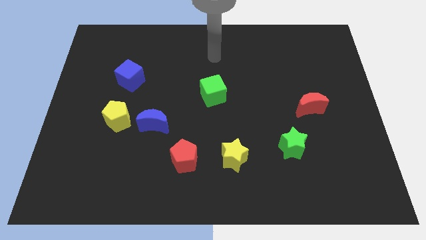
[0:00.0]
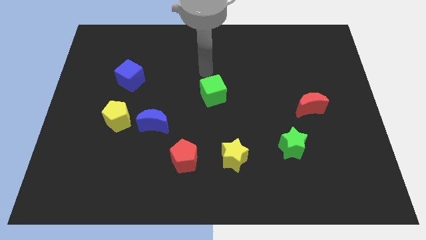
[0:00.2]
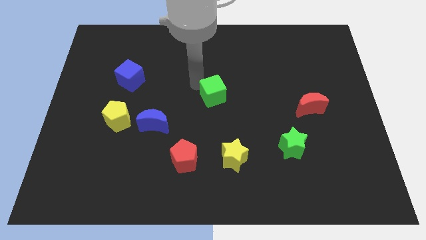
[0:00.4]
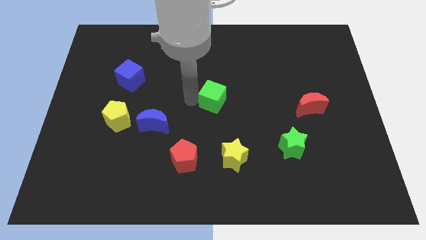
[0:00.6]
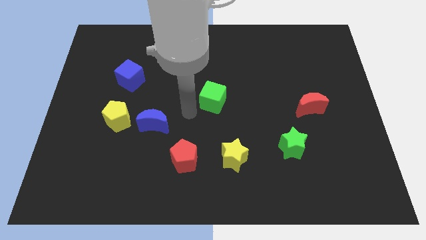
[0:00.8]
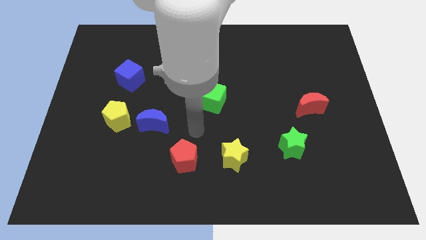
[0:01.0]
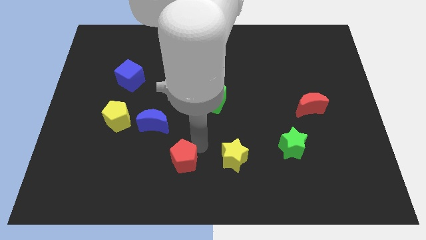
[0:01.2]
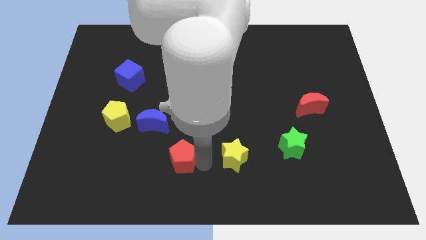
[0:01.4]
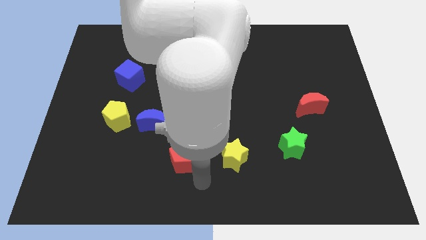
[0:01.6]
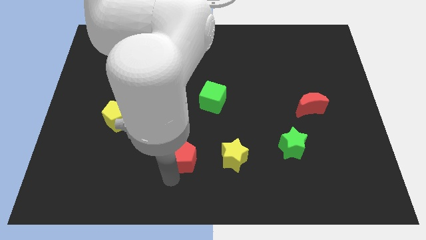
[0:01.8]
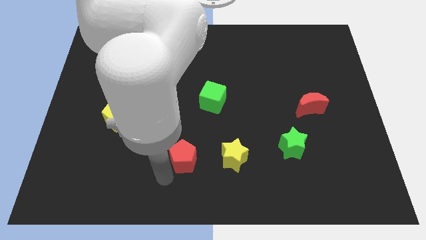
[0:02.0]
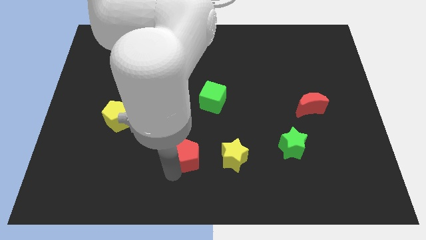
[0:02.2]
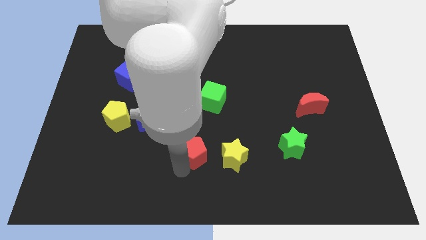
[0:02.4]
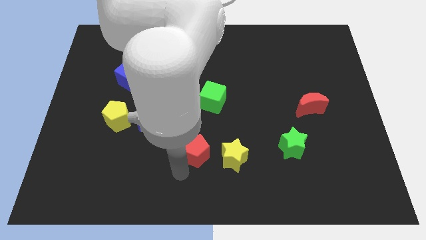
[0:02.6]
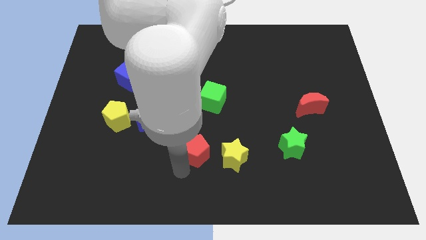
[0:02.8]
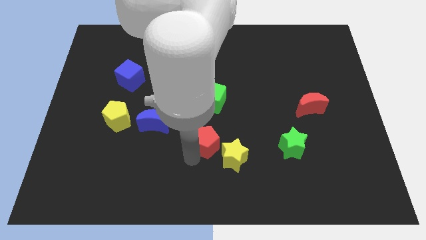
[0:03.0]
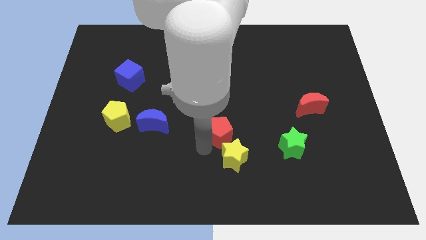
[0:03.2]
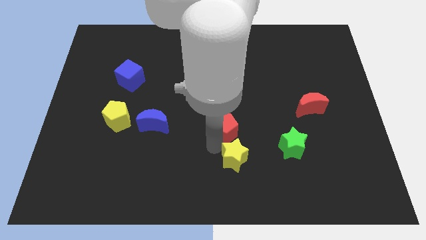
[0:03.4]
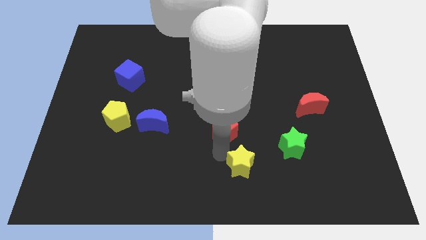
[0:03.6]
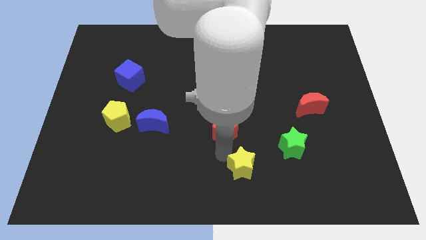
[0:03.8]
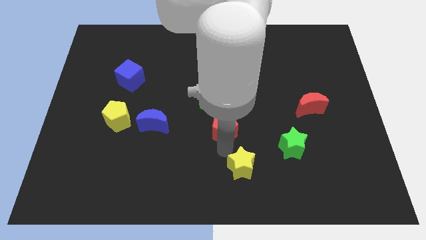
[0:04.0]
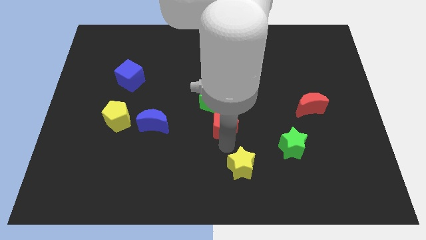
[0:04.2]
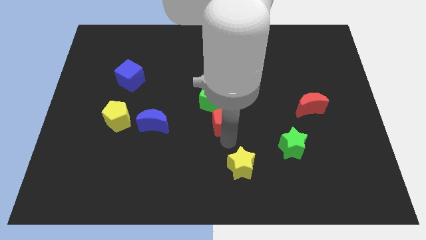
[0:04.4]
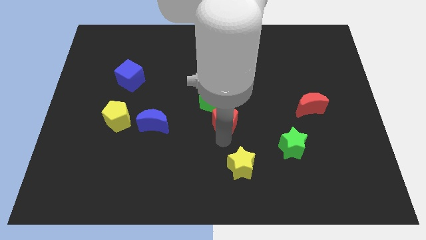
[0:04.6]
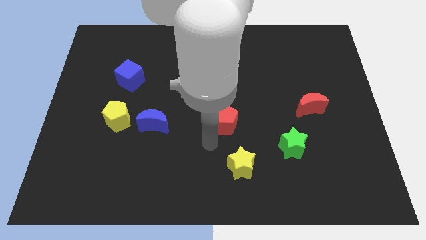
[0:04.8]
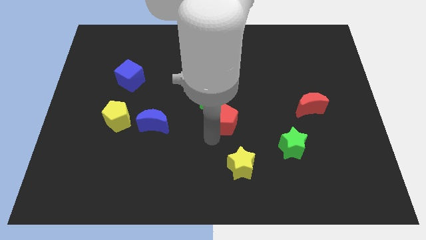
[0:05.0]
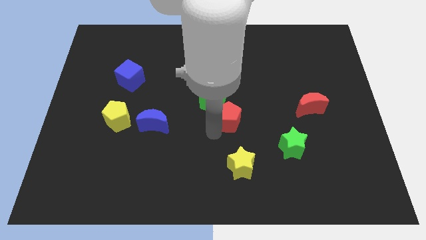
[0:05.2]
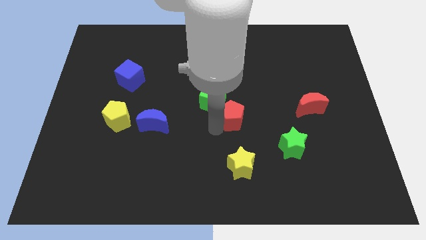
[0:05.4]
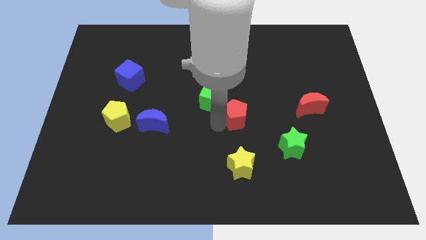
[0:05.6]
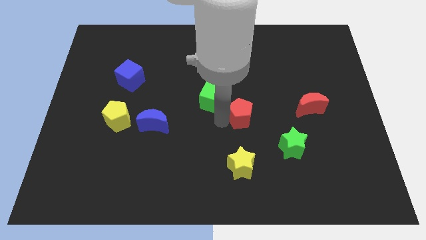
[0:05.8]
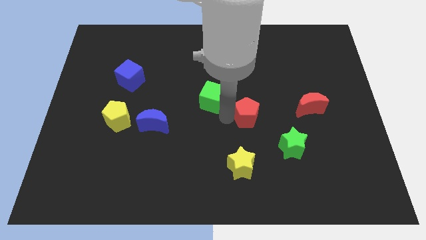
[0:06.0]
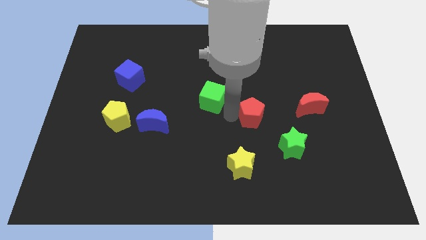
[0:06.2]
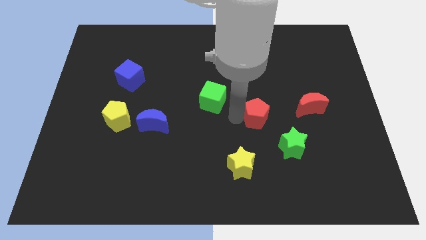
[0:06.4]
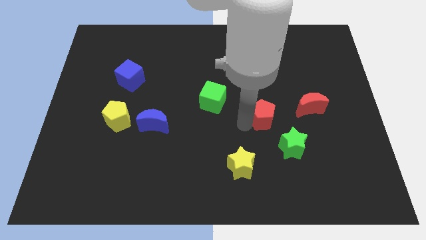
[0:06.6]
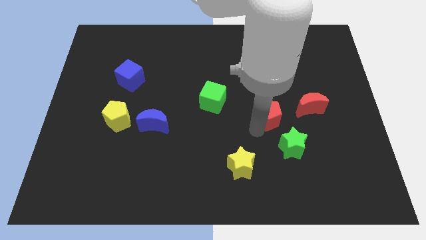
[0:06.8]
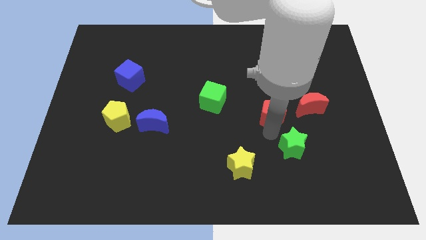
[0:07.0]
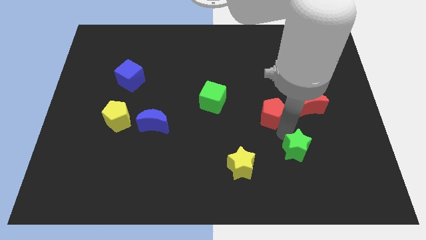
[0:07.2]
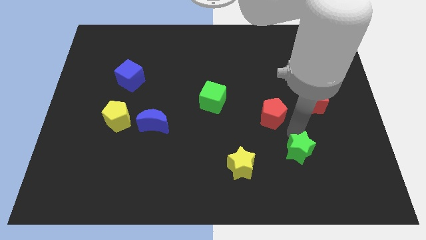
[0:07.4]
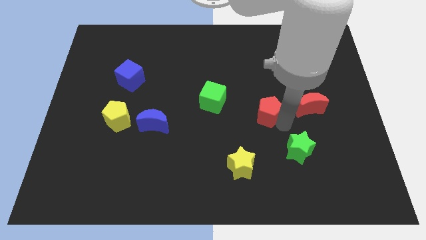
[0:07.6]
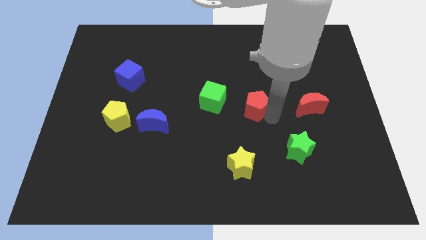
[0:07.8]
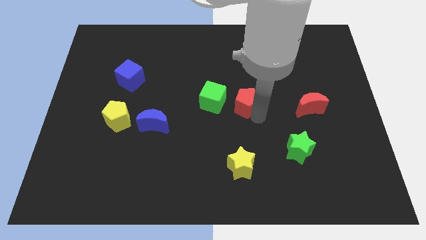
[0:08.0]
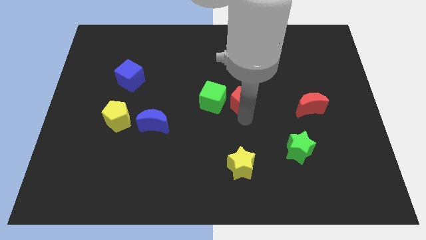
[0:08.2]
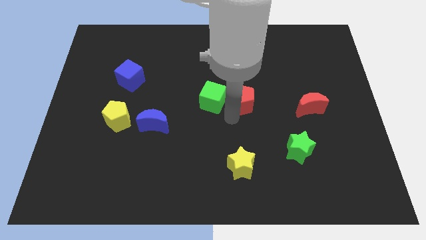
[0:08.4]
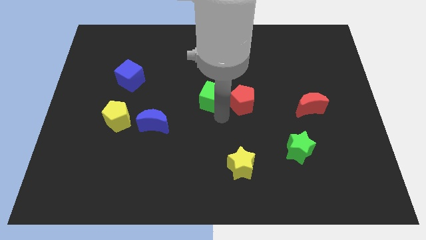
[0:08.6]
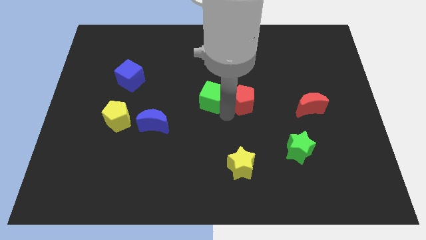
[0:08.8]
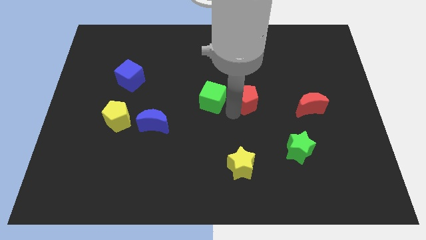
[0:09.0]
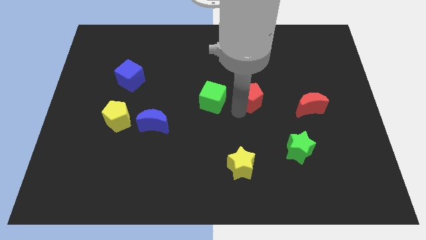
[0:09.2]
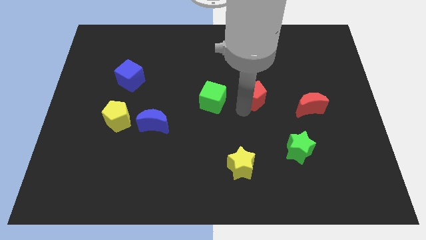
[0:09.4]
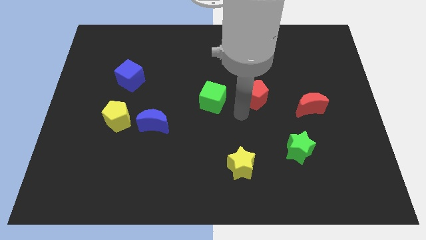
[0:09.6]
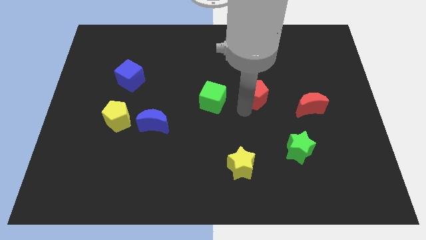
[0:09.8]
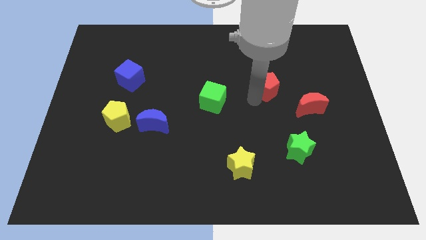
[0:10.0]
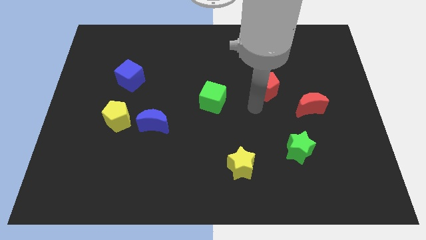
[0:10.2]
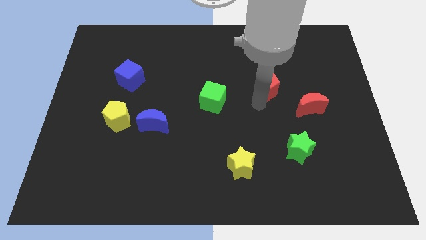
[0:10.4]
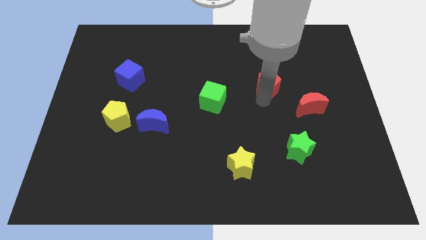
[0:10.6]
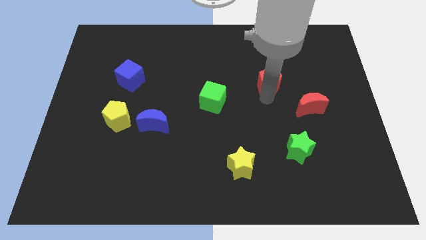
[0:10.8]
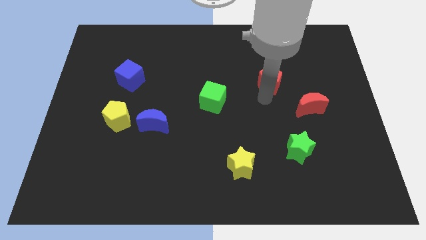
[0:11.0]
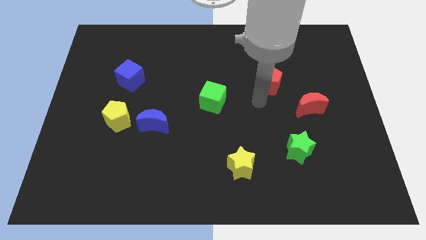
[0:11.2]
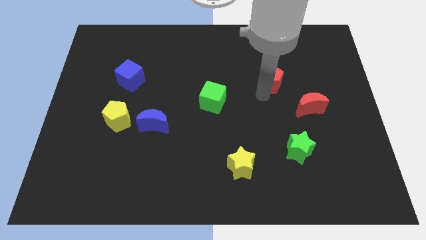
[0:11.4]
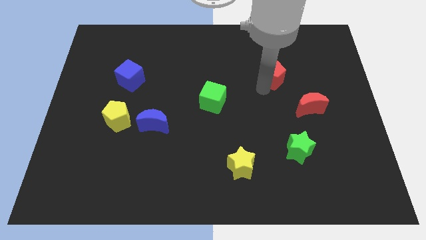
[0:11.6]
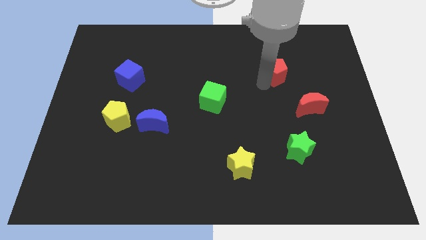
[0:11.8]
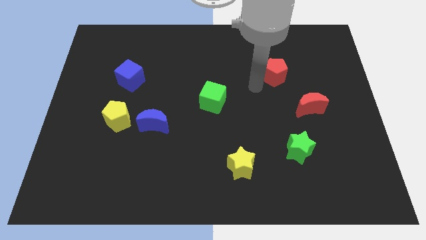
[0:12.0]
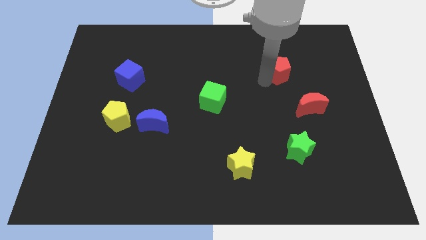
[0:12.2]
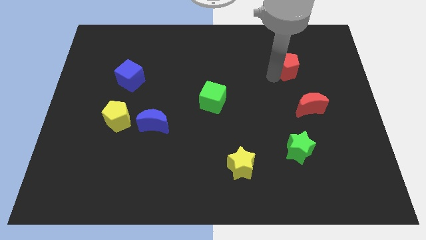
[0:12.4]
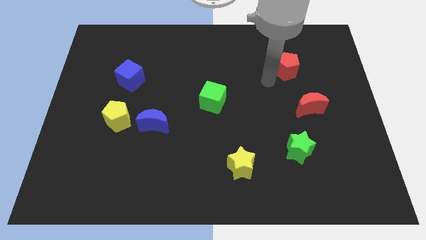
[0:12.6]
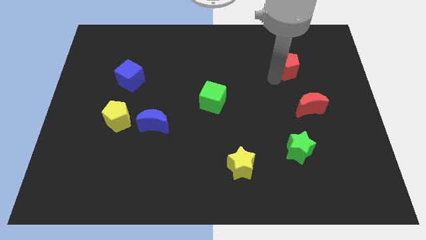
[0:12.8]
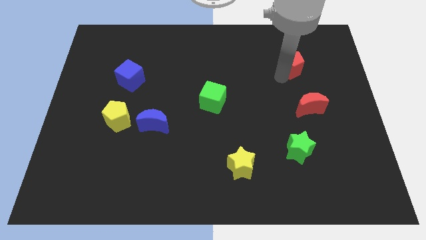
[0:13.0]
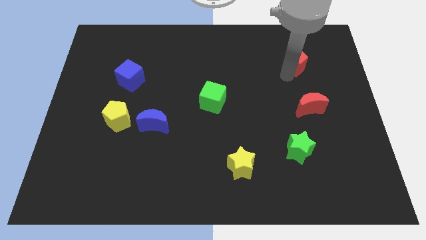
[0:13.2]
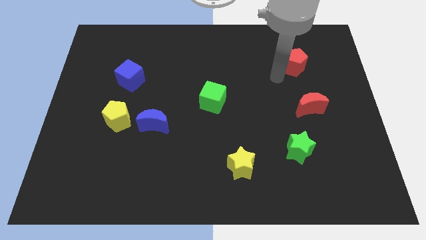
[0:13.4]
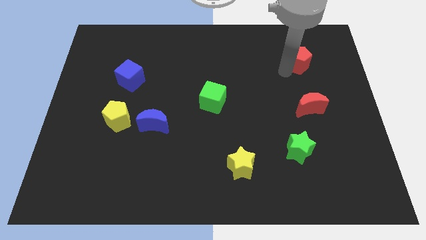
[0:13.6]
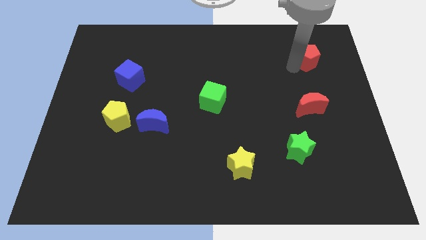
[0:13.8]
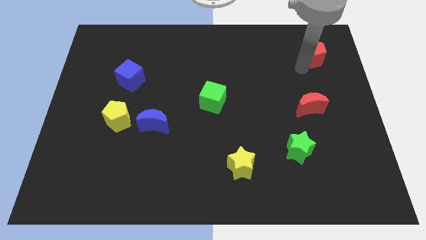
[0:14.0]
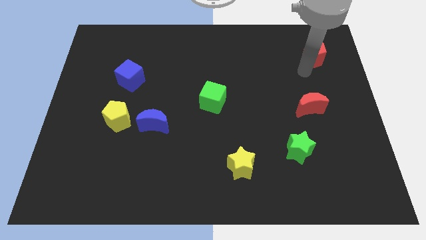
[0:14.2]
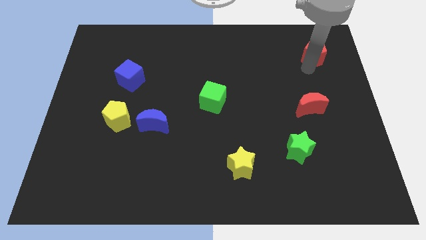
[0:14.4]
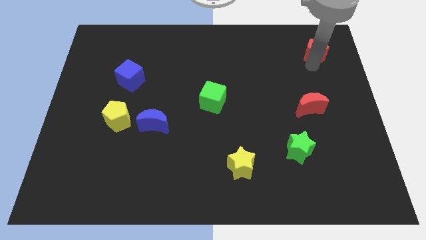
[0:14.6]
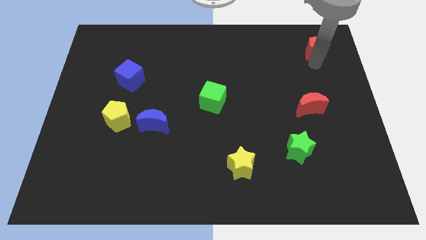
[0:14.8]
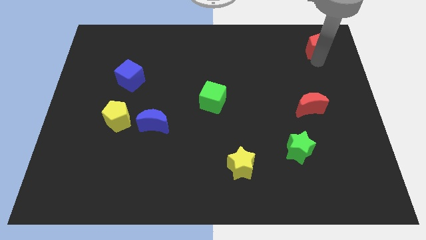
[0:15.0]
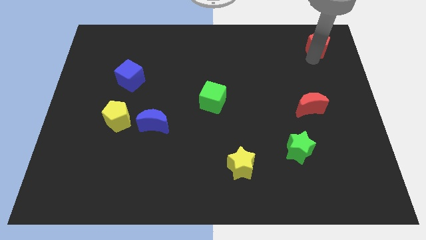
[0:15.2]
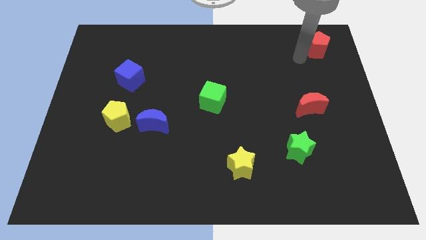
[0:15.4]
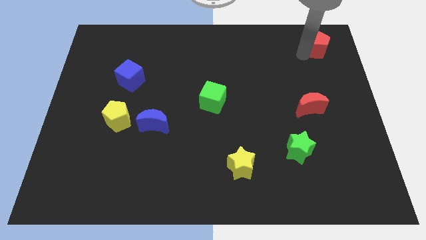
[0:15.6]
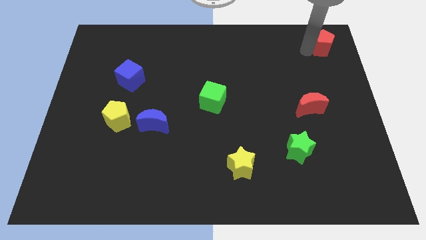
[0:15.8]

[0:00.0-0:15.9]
move the red pentagon to the top right corner
